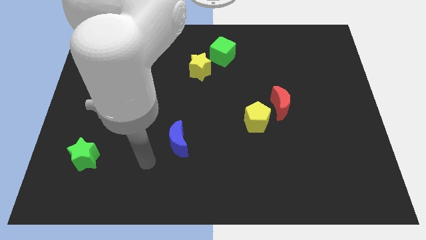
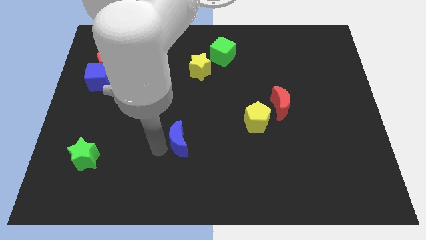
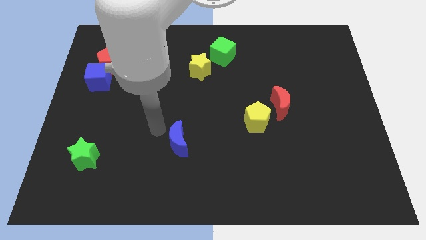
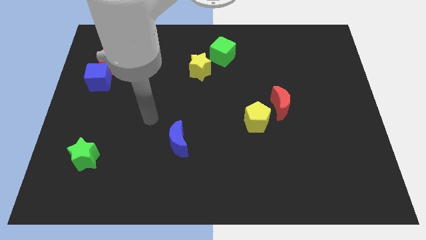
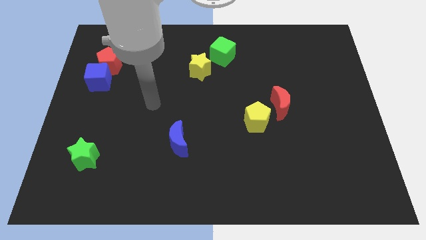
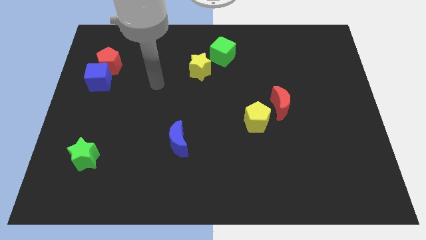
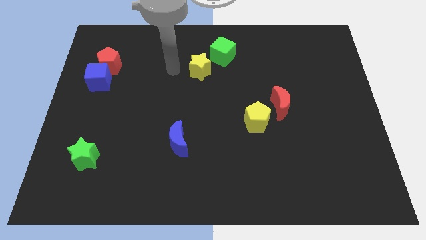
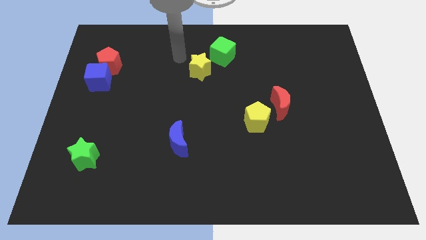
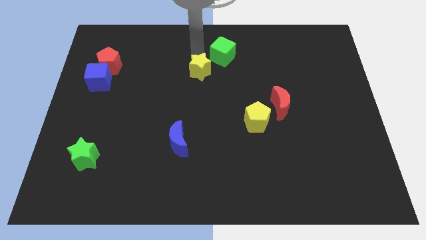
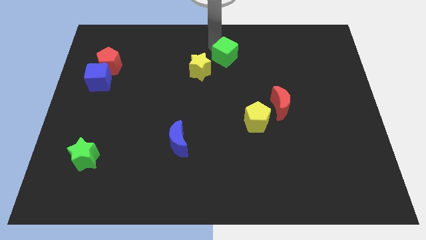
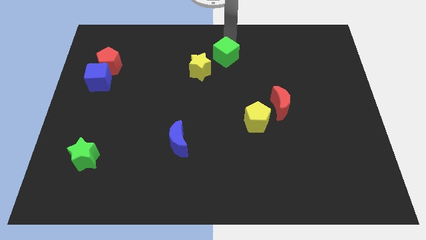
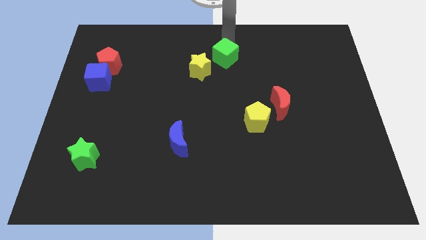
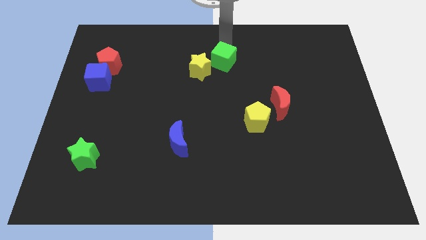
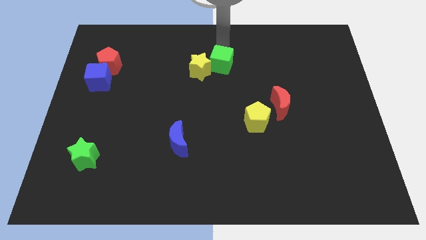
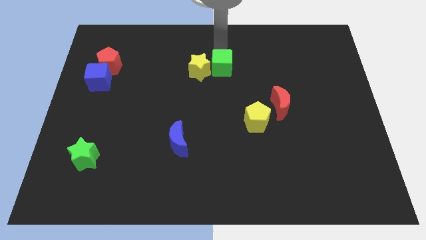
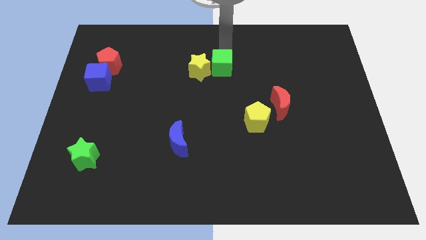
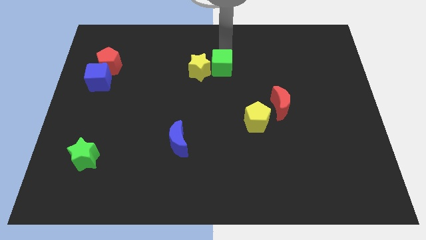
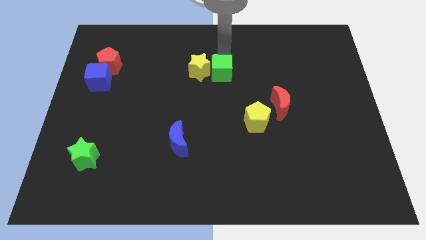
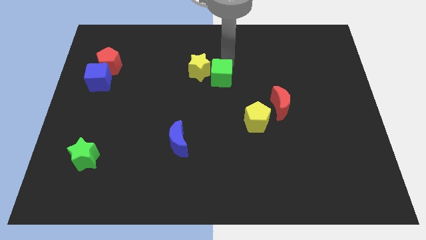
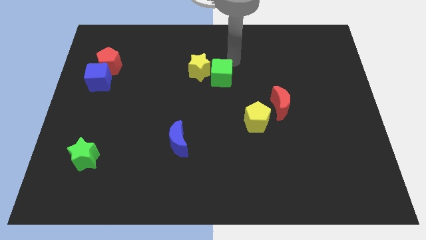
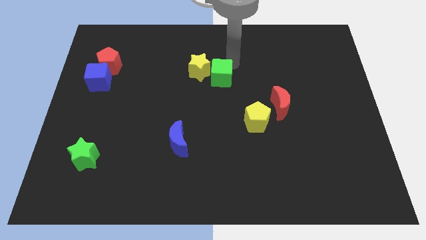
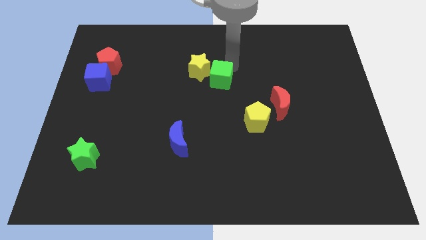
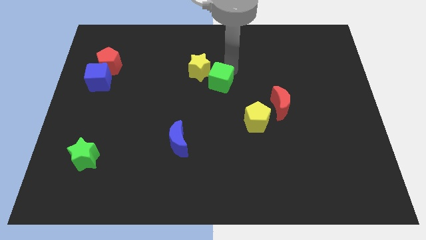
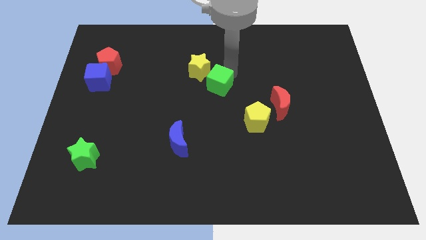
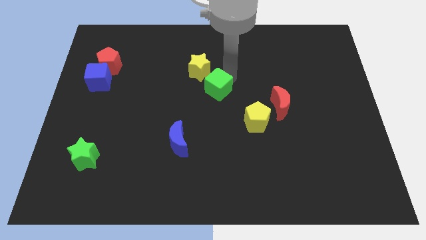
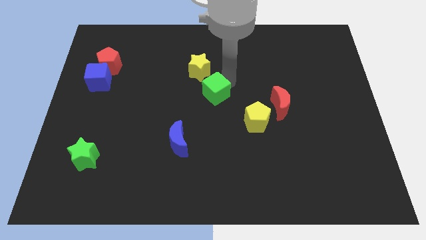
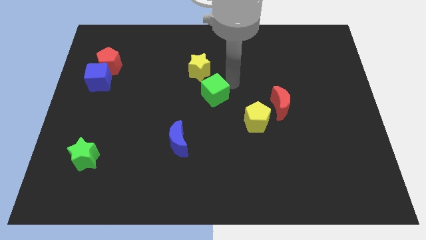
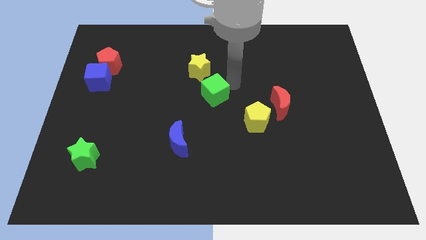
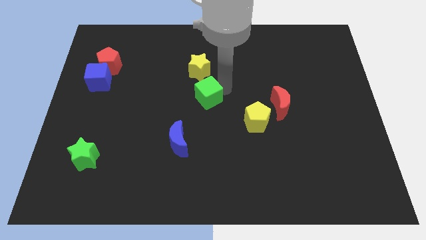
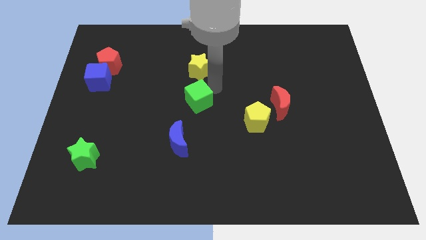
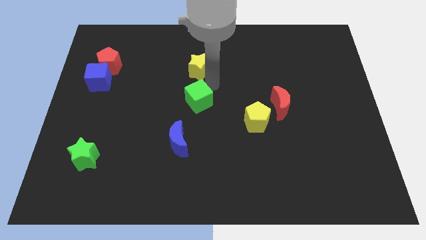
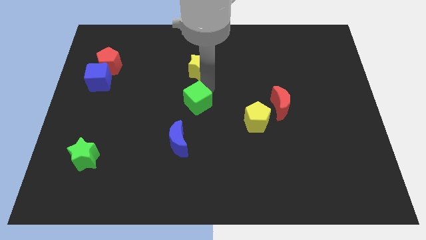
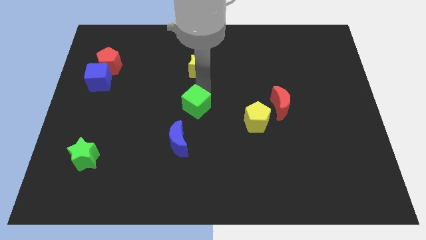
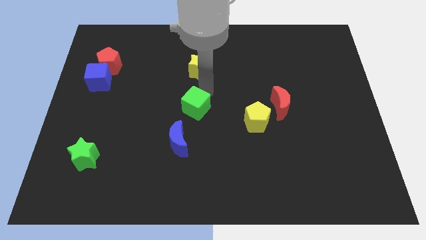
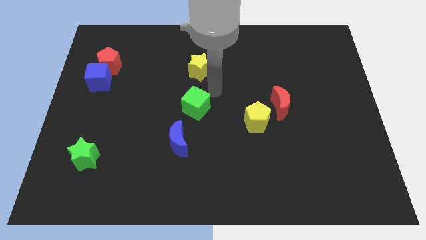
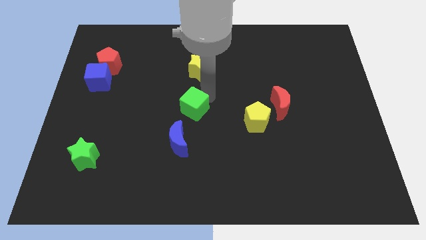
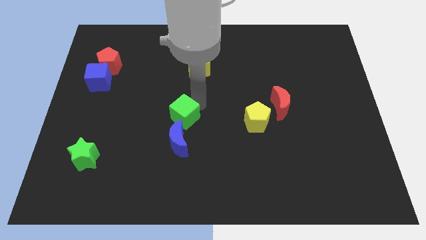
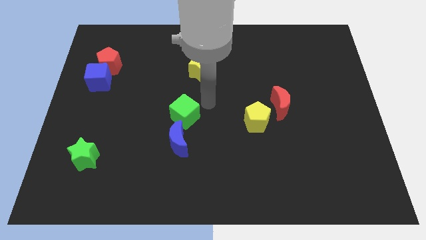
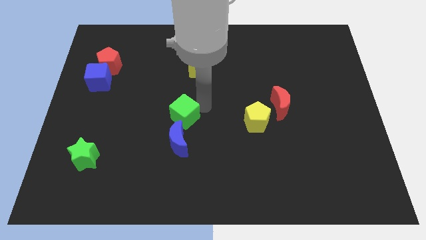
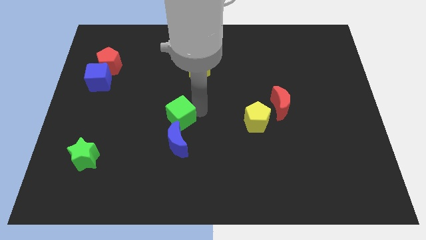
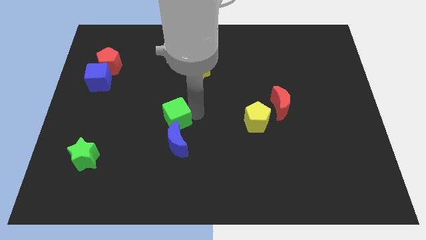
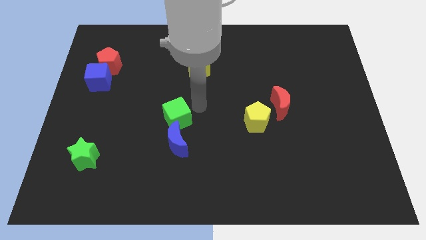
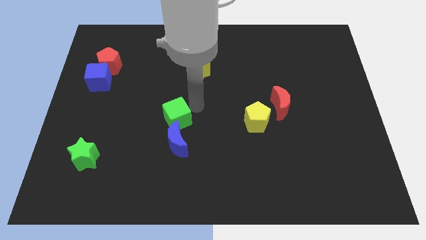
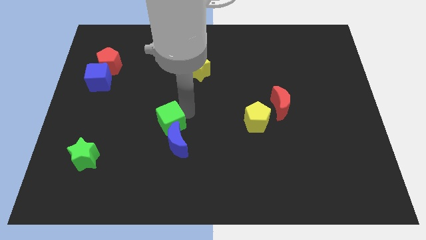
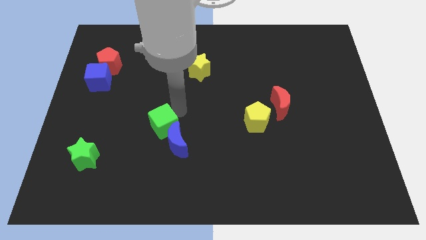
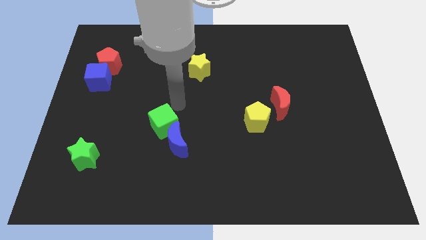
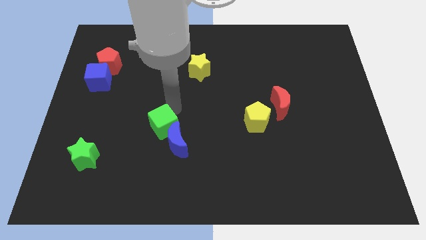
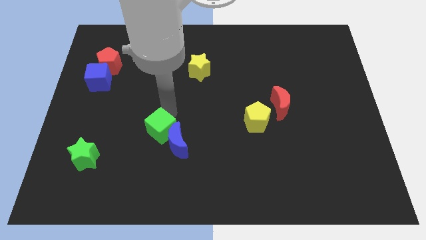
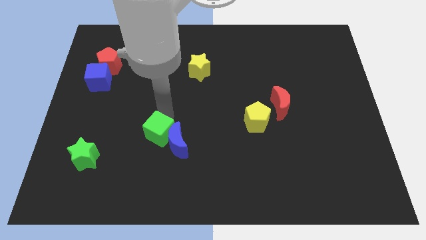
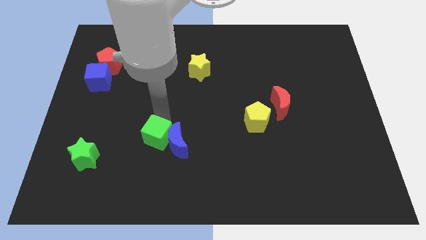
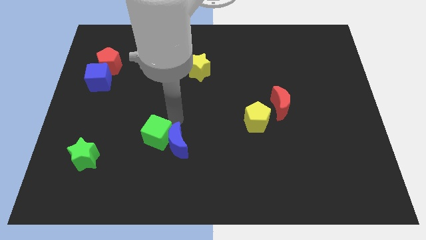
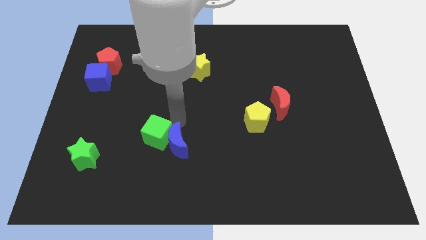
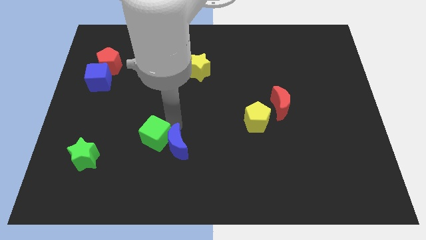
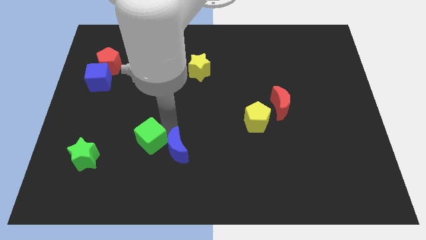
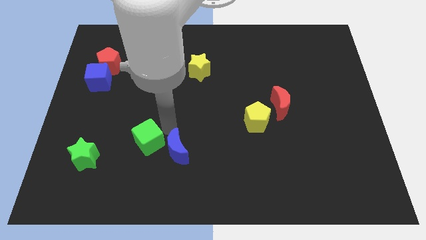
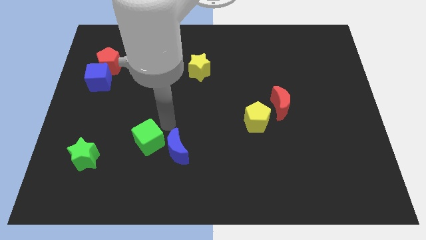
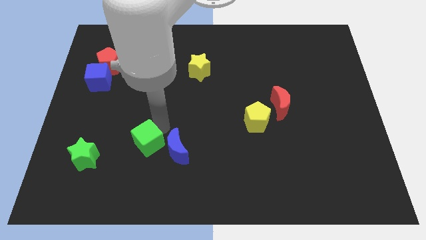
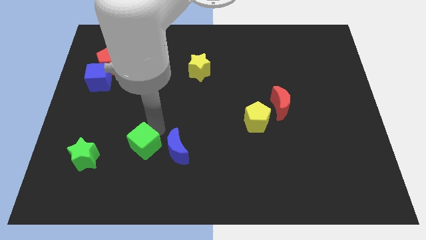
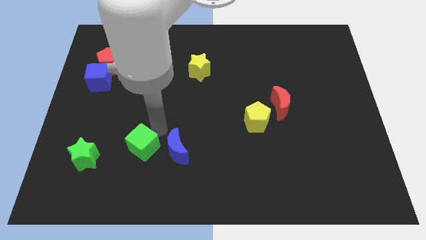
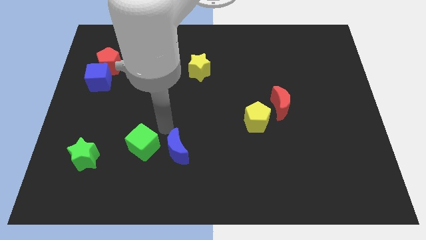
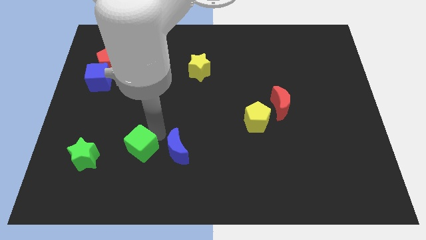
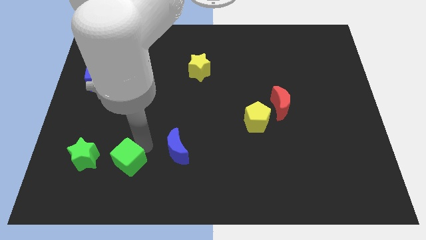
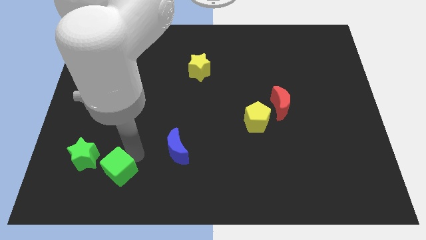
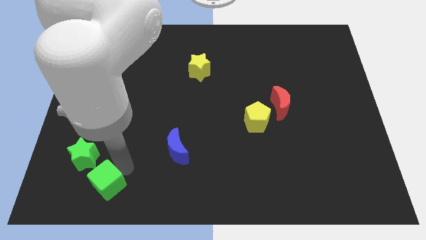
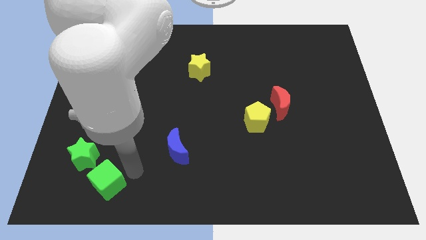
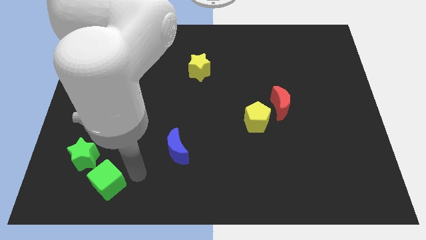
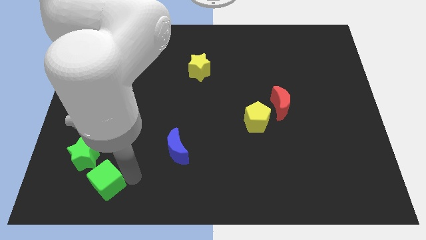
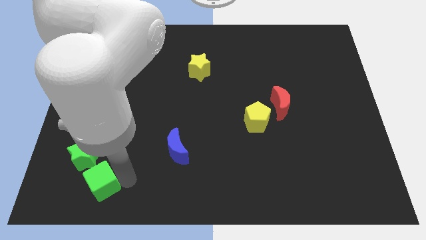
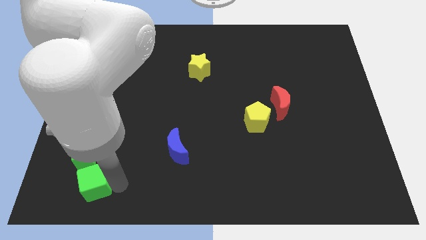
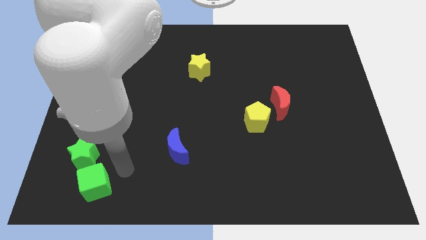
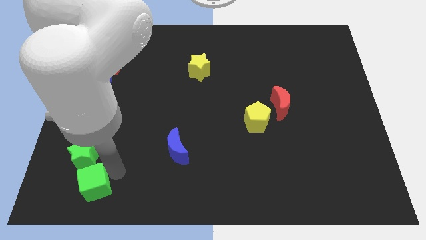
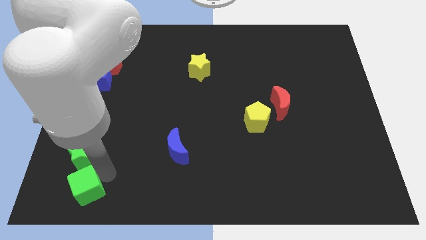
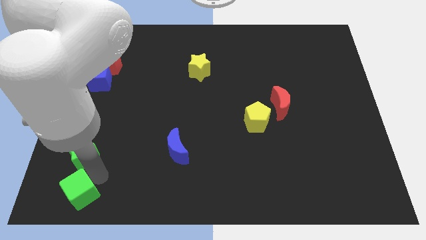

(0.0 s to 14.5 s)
move the green cube to the bottom left
